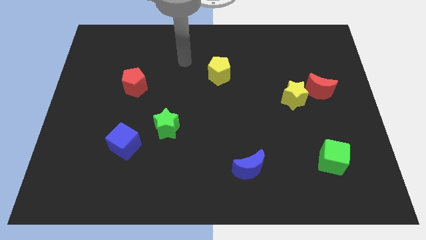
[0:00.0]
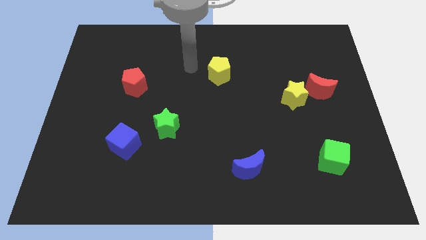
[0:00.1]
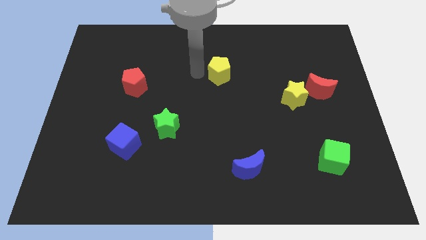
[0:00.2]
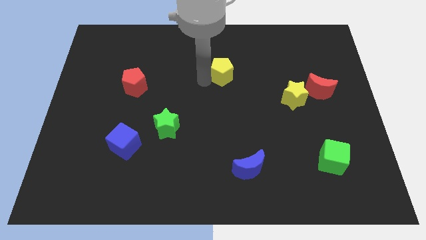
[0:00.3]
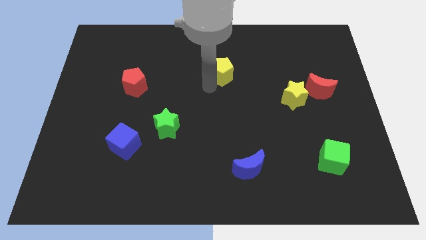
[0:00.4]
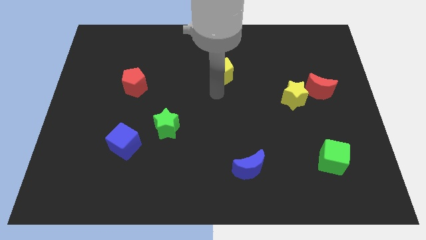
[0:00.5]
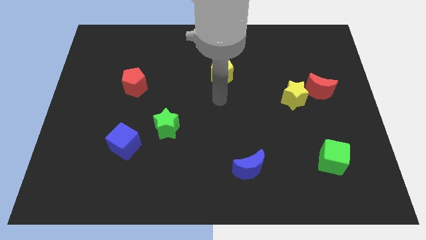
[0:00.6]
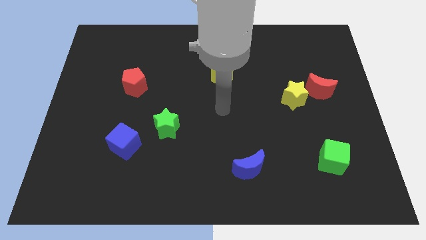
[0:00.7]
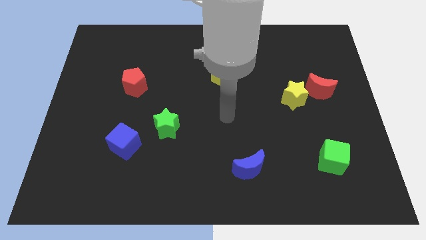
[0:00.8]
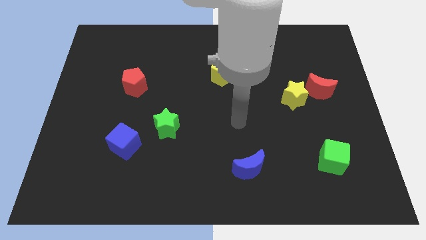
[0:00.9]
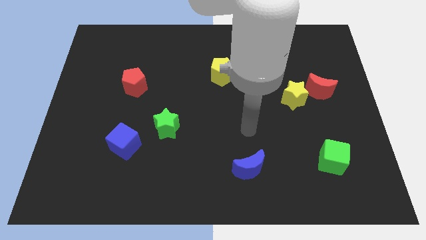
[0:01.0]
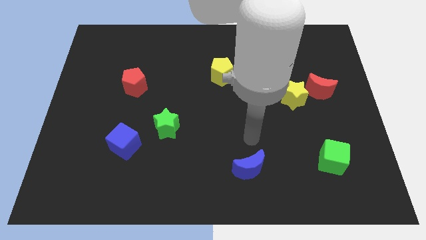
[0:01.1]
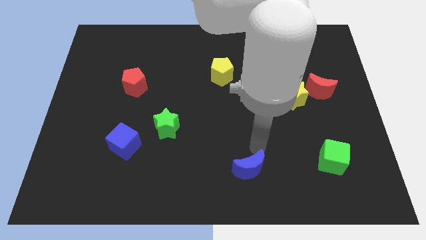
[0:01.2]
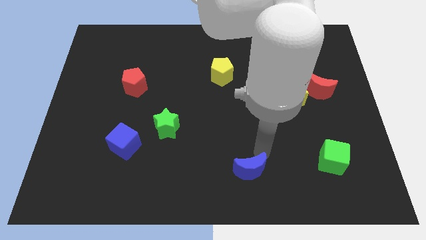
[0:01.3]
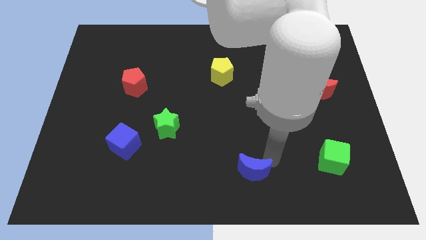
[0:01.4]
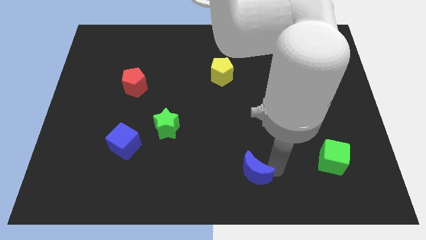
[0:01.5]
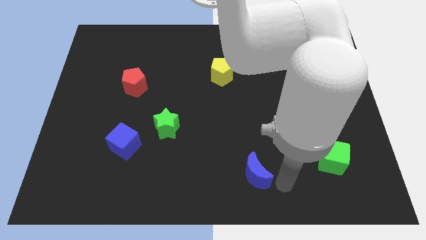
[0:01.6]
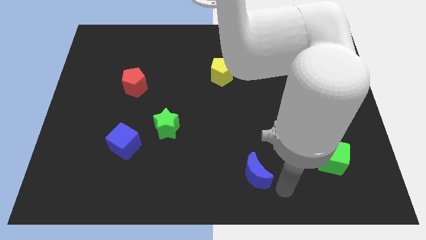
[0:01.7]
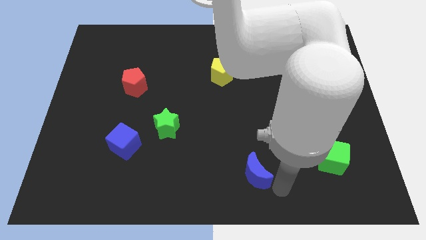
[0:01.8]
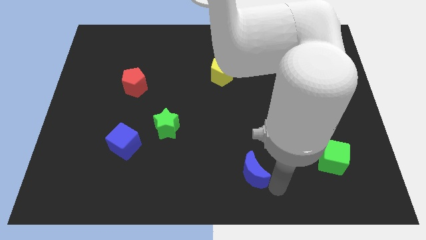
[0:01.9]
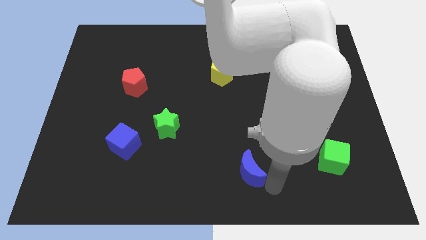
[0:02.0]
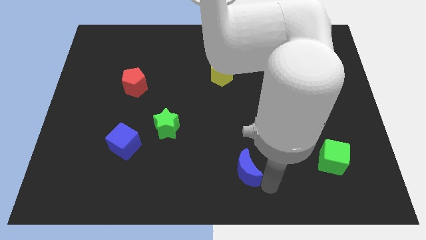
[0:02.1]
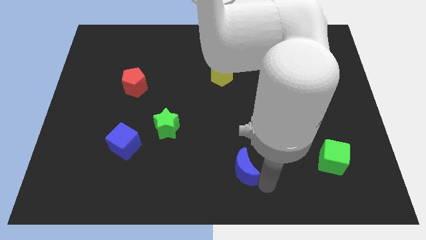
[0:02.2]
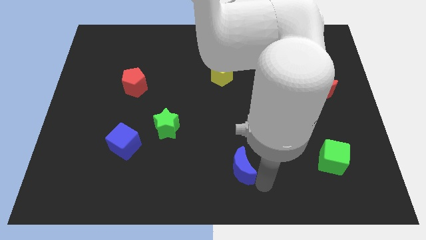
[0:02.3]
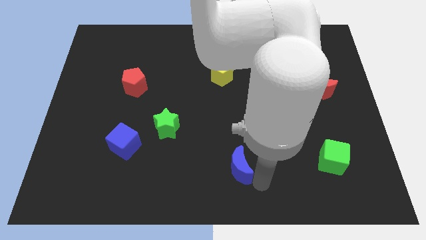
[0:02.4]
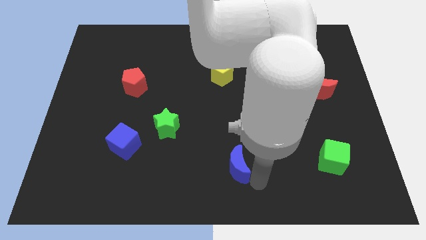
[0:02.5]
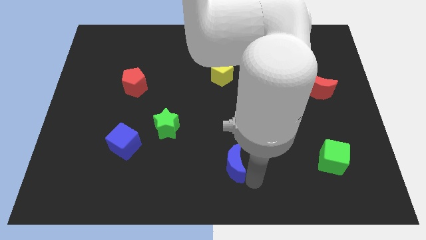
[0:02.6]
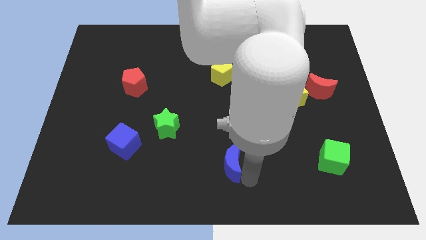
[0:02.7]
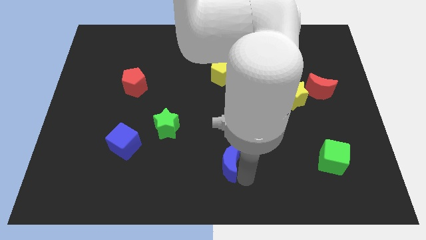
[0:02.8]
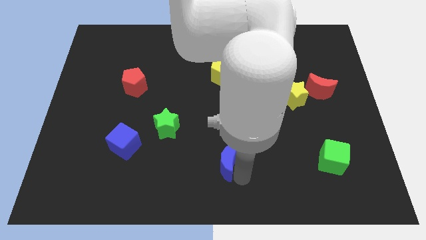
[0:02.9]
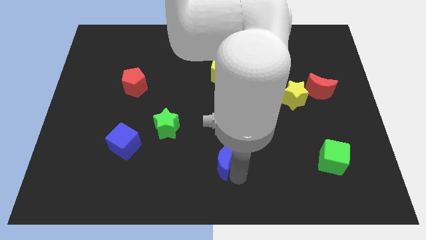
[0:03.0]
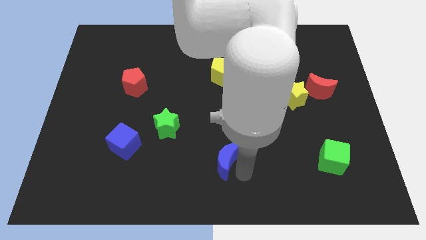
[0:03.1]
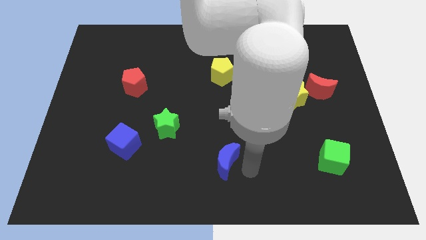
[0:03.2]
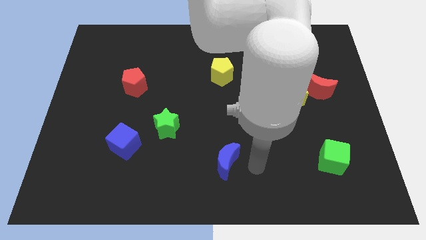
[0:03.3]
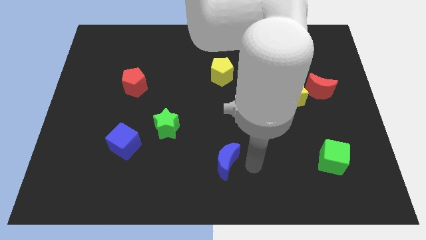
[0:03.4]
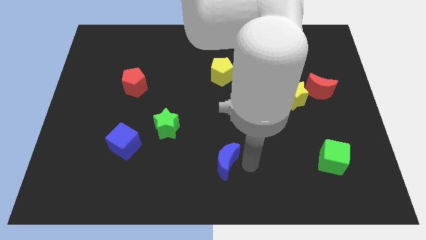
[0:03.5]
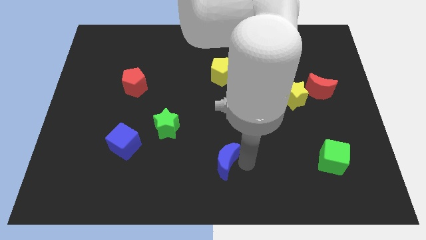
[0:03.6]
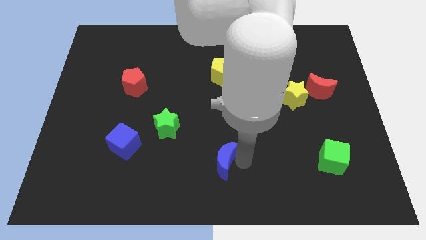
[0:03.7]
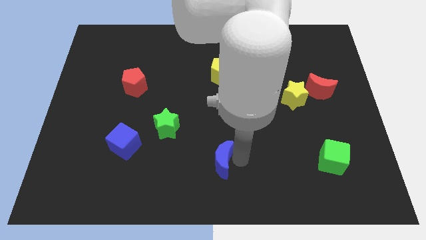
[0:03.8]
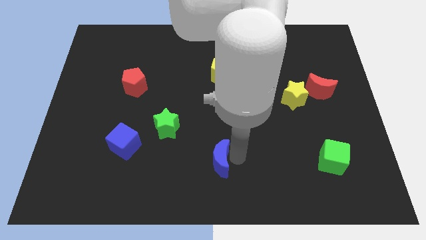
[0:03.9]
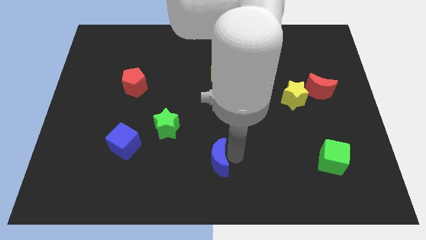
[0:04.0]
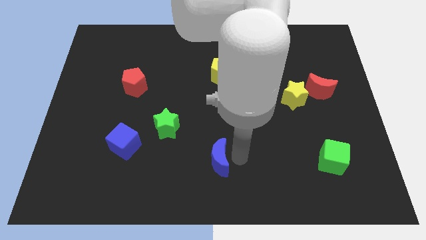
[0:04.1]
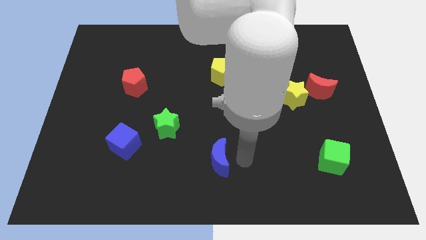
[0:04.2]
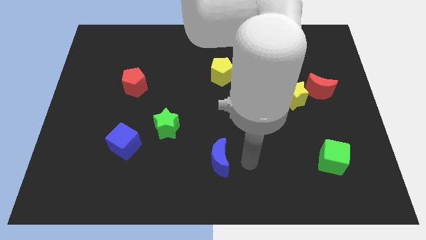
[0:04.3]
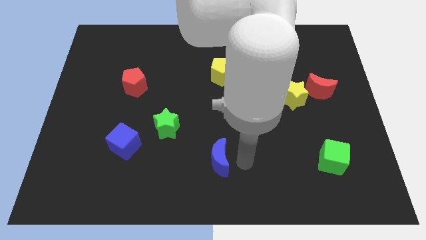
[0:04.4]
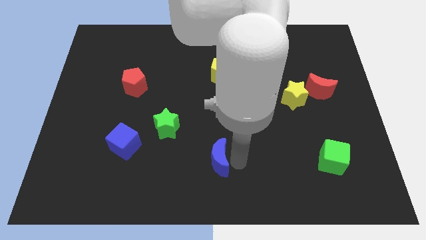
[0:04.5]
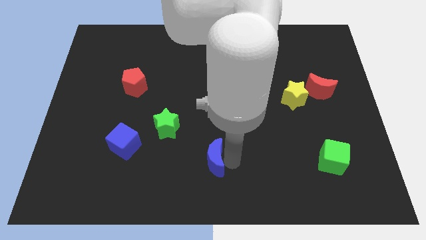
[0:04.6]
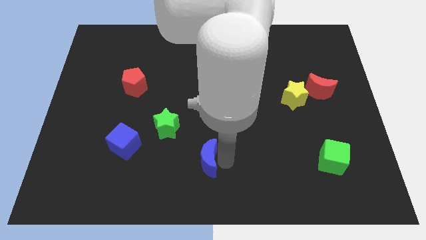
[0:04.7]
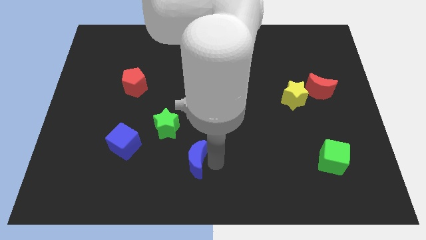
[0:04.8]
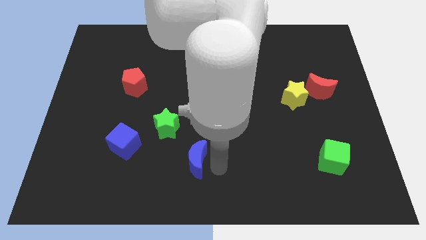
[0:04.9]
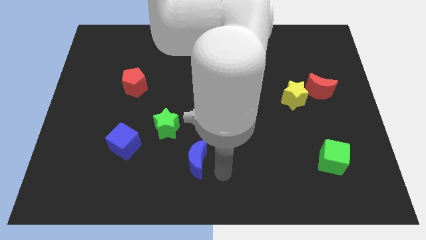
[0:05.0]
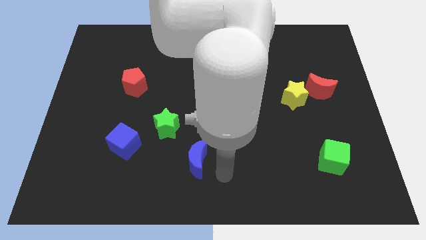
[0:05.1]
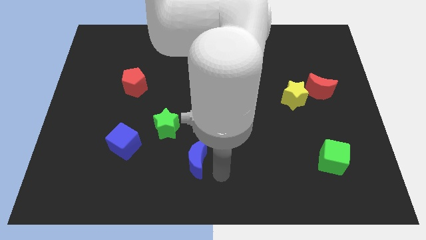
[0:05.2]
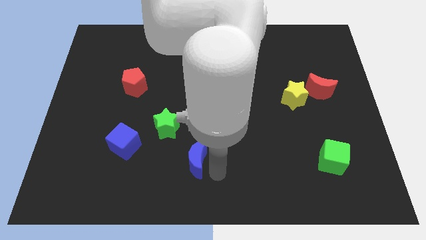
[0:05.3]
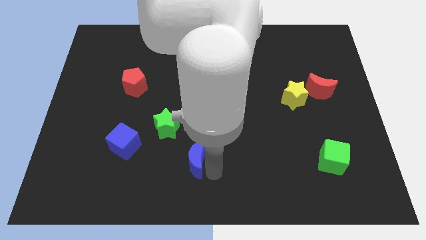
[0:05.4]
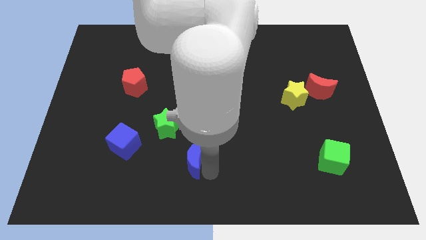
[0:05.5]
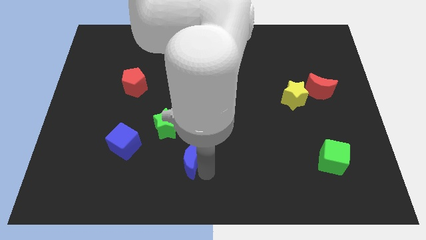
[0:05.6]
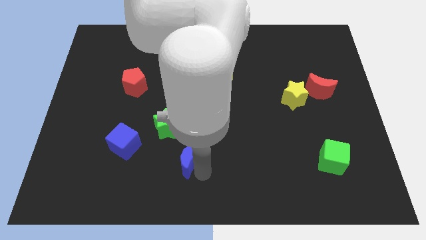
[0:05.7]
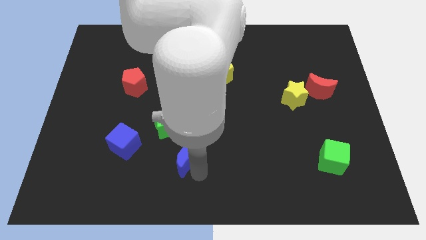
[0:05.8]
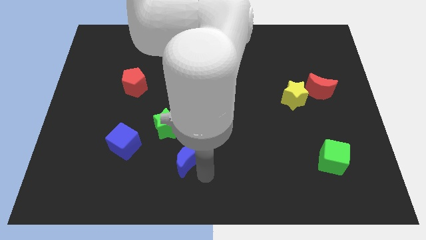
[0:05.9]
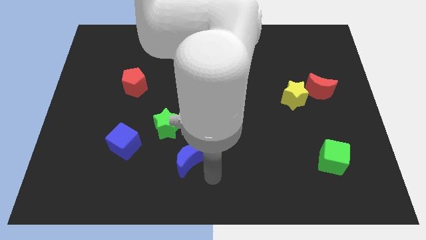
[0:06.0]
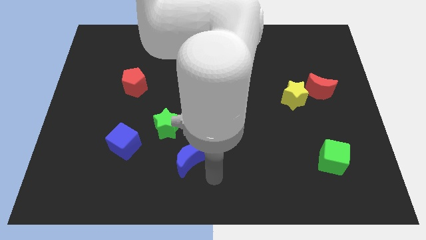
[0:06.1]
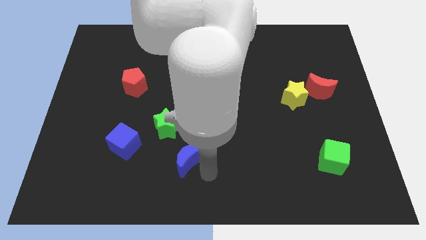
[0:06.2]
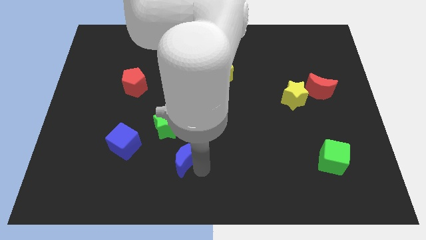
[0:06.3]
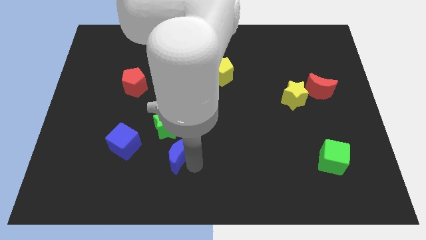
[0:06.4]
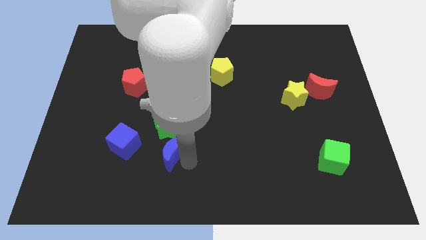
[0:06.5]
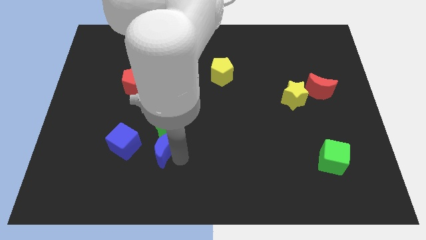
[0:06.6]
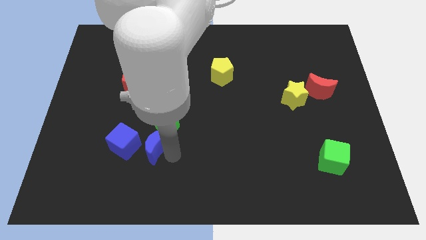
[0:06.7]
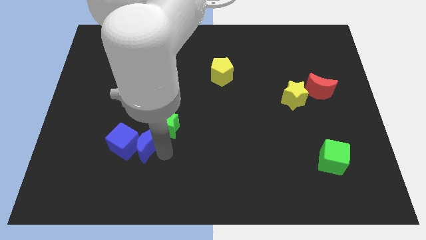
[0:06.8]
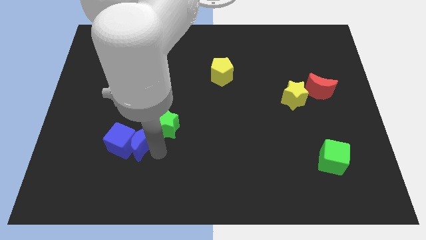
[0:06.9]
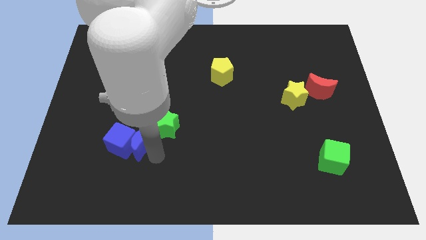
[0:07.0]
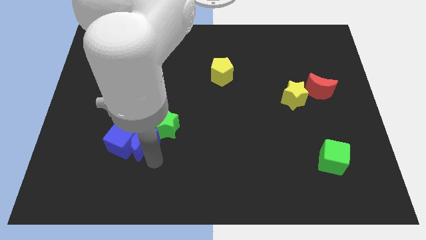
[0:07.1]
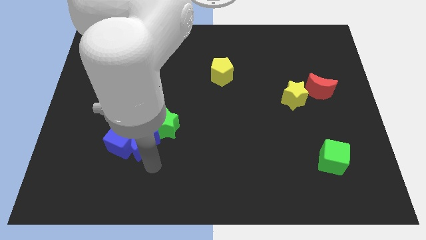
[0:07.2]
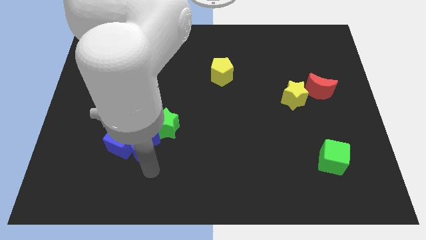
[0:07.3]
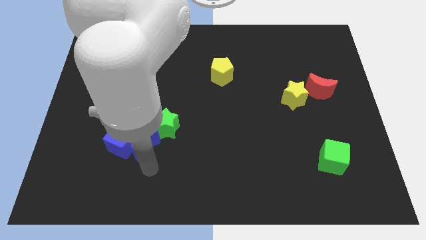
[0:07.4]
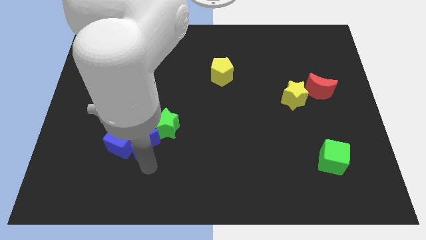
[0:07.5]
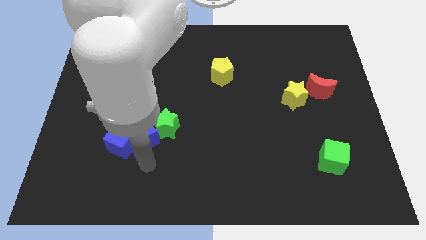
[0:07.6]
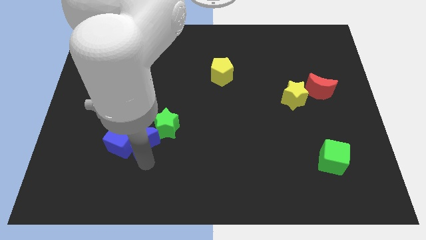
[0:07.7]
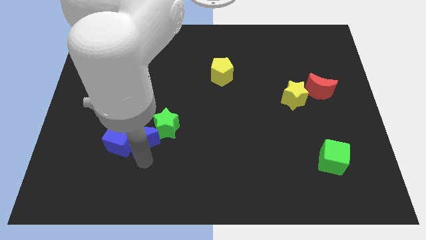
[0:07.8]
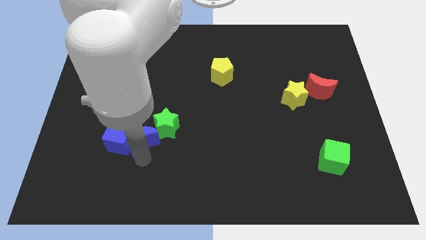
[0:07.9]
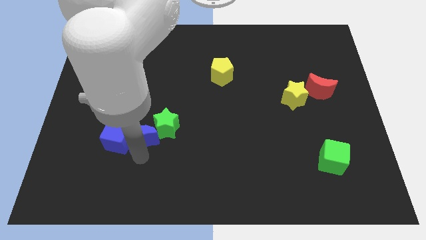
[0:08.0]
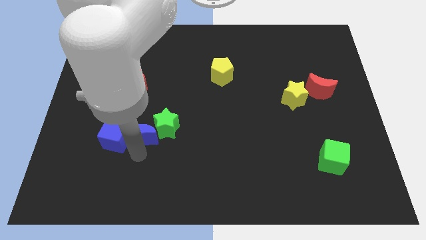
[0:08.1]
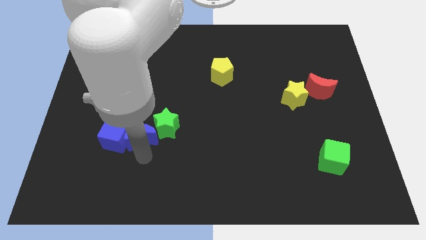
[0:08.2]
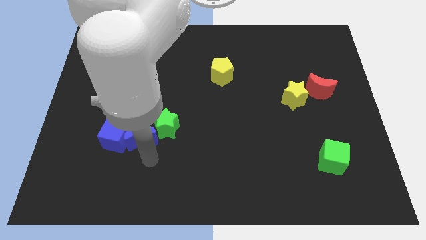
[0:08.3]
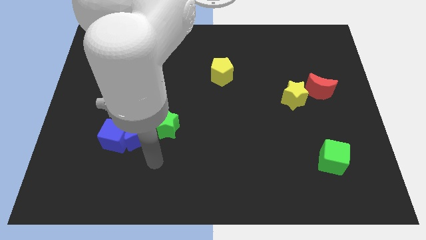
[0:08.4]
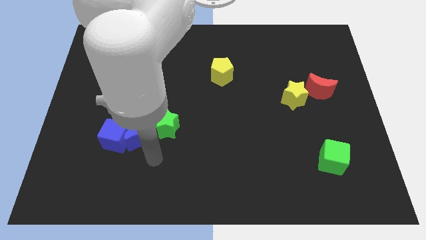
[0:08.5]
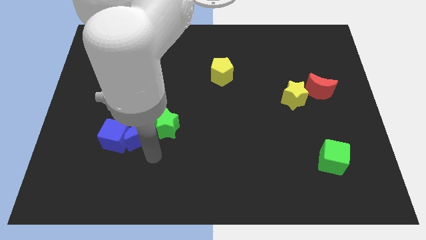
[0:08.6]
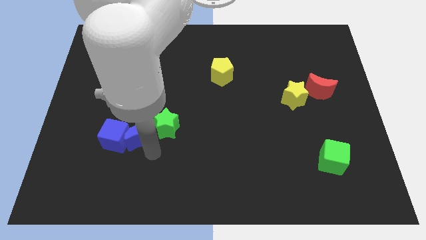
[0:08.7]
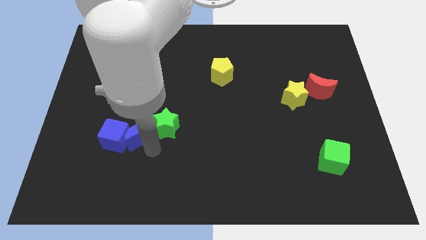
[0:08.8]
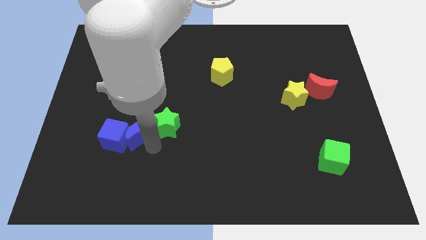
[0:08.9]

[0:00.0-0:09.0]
move the blue moon to the bottom side of the red pentagon
